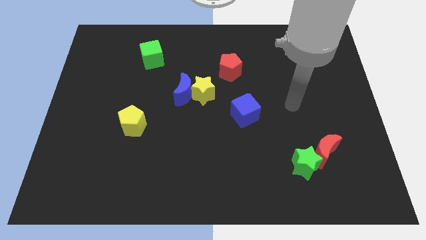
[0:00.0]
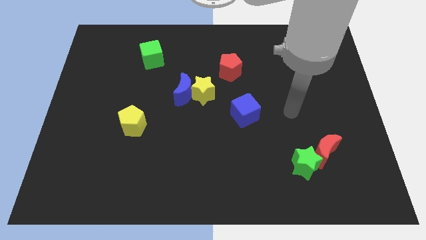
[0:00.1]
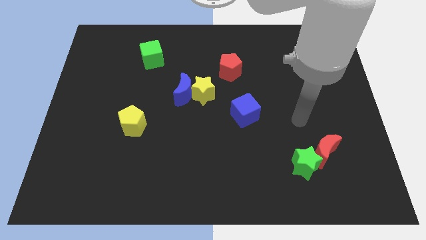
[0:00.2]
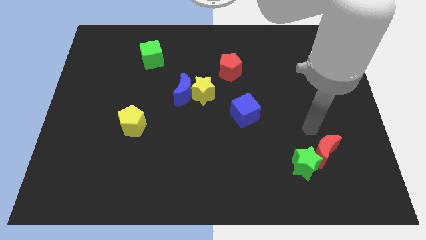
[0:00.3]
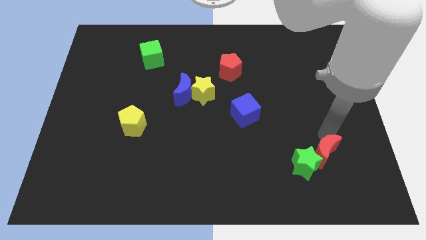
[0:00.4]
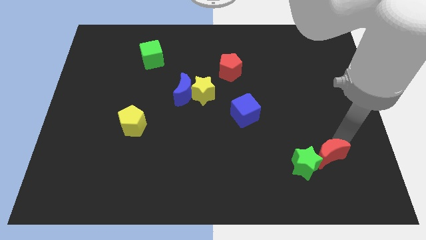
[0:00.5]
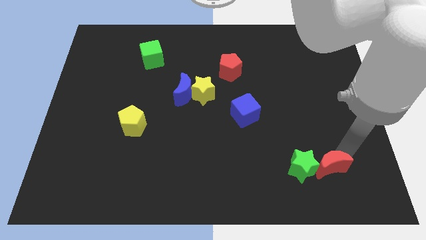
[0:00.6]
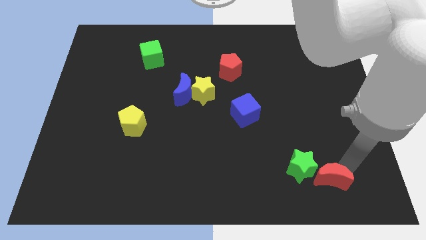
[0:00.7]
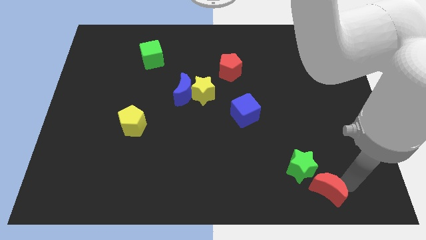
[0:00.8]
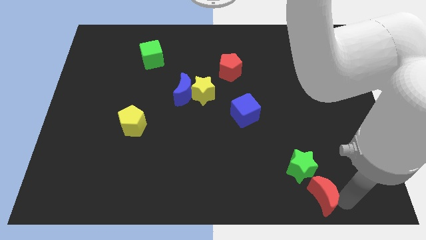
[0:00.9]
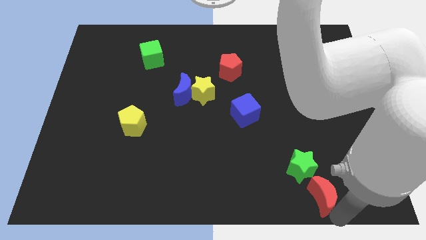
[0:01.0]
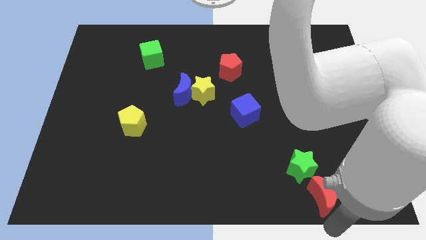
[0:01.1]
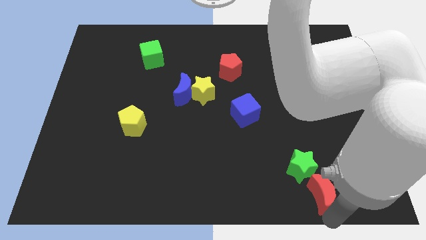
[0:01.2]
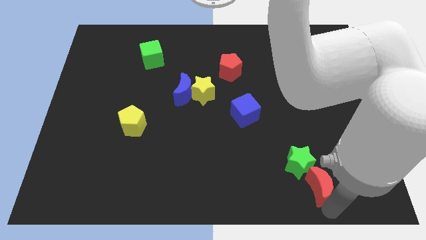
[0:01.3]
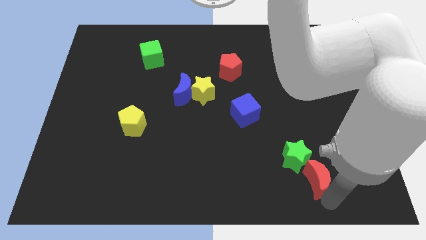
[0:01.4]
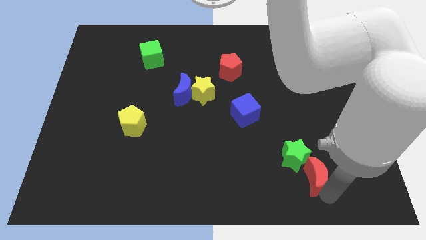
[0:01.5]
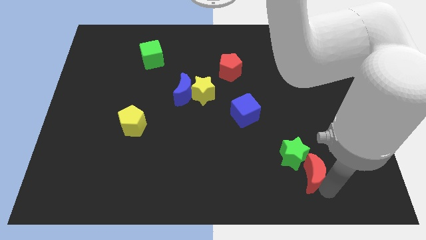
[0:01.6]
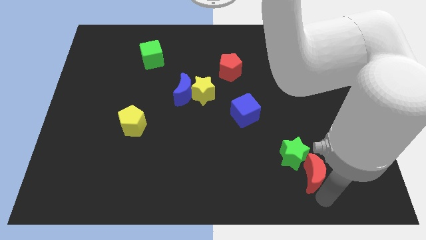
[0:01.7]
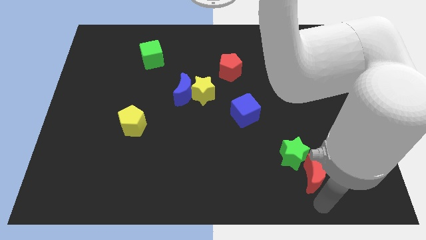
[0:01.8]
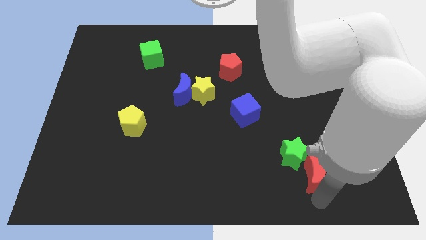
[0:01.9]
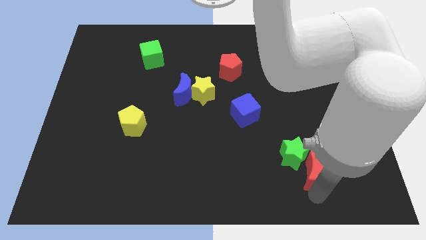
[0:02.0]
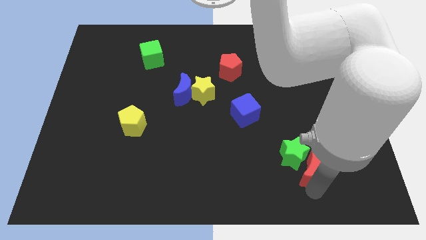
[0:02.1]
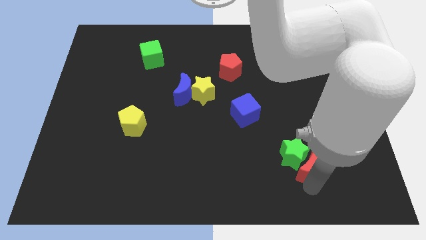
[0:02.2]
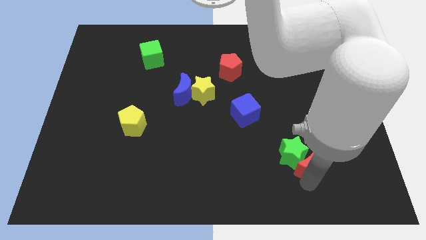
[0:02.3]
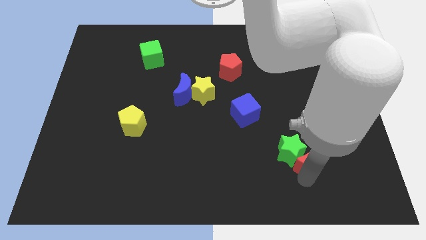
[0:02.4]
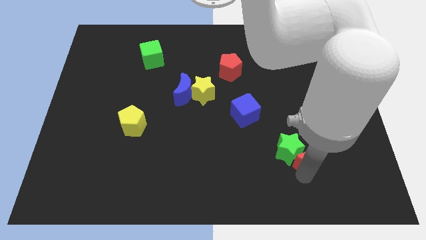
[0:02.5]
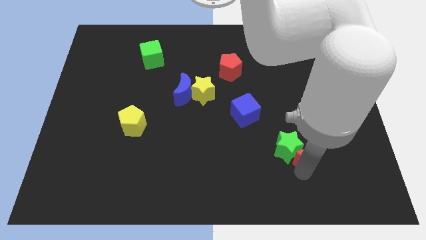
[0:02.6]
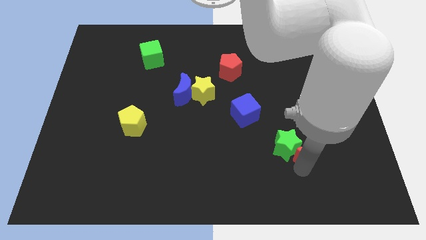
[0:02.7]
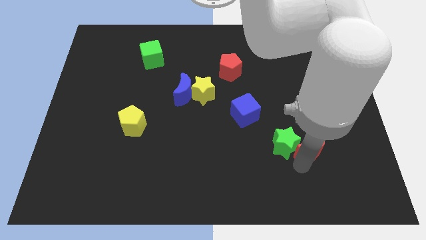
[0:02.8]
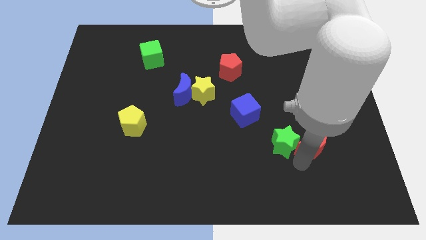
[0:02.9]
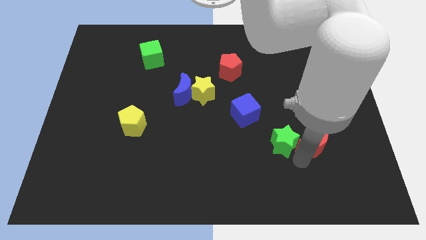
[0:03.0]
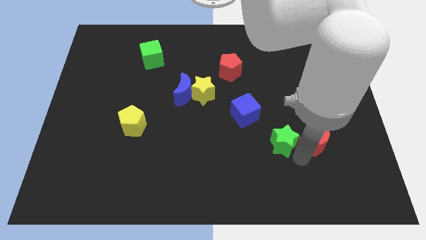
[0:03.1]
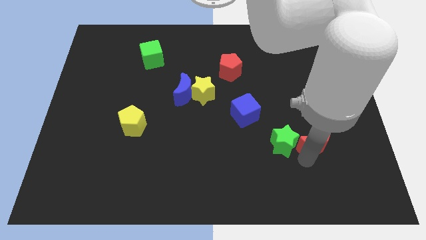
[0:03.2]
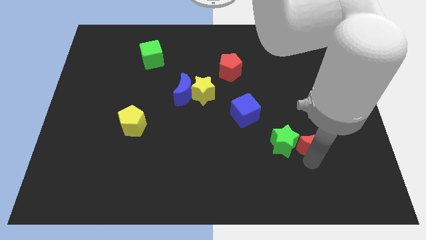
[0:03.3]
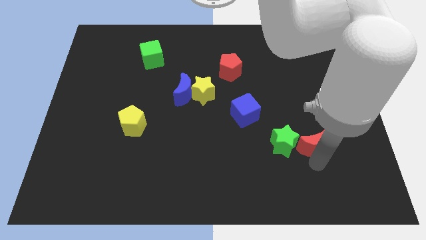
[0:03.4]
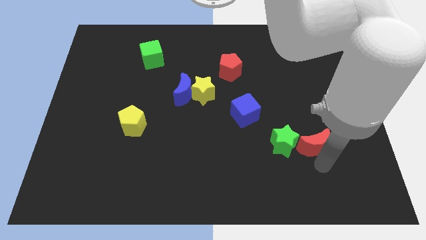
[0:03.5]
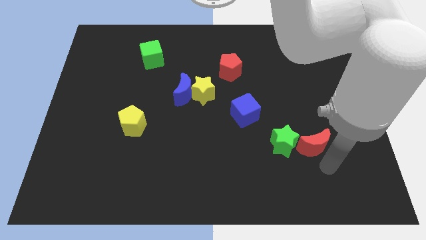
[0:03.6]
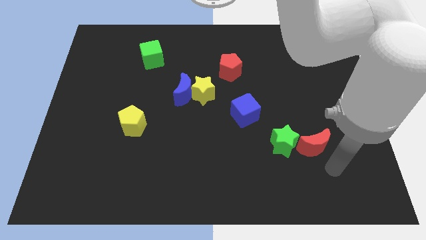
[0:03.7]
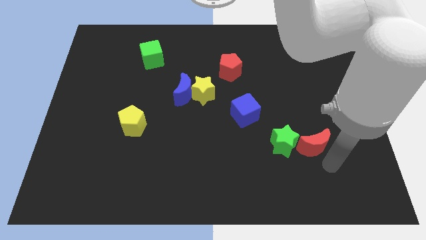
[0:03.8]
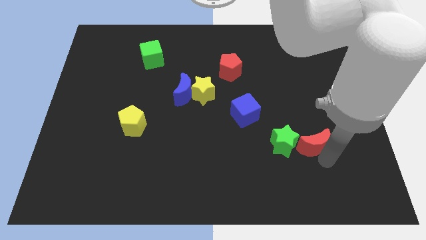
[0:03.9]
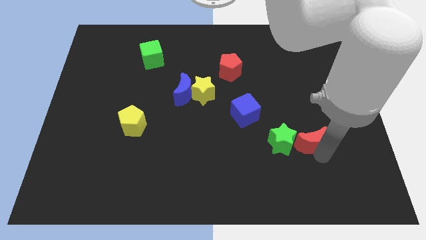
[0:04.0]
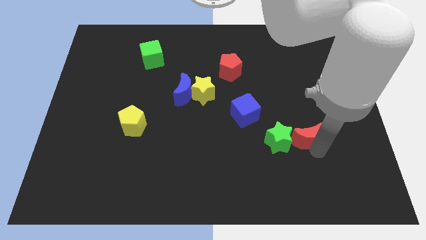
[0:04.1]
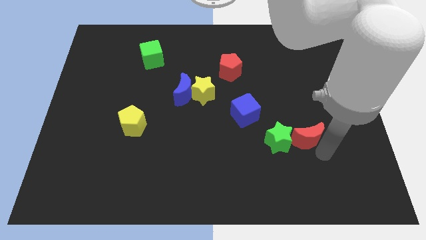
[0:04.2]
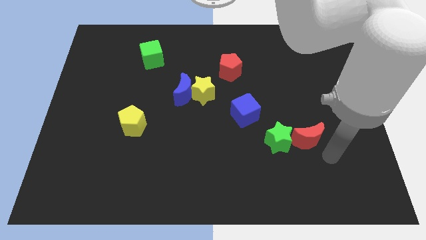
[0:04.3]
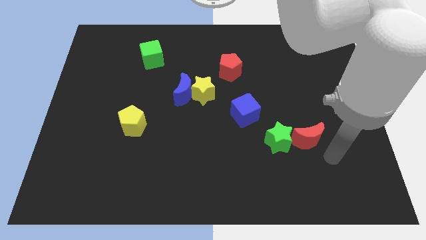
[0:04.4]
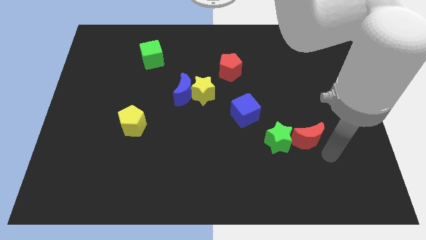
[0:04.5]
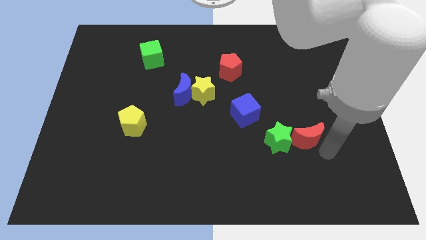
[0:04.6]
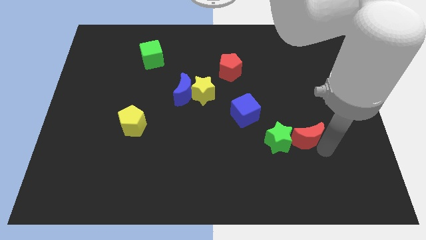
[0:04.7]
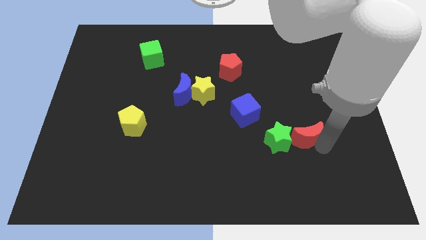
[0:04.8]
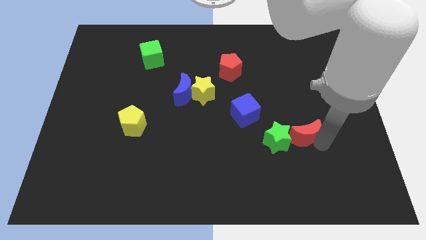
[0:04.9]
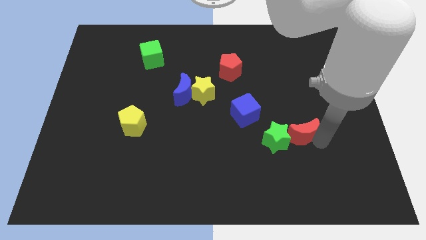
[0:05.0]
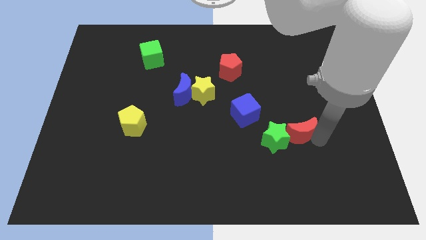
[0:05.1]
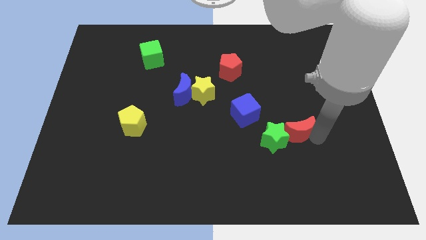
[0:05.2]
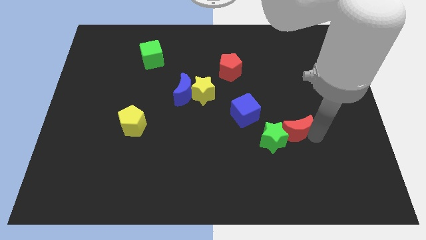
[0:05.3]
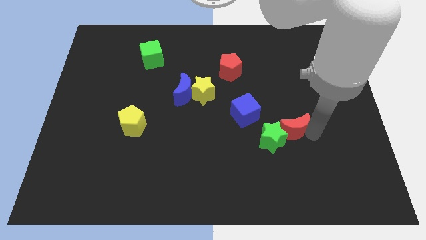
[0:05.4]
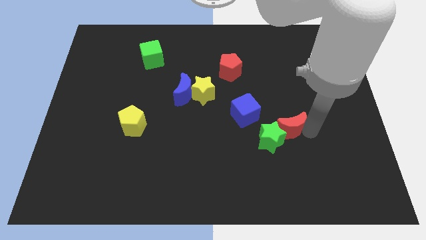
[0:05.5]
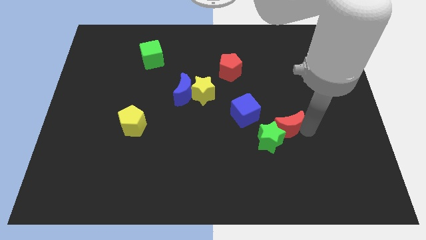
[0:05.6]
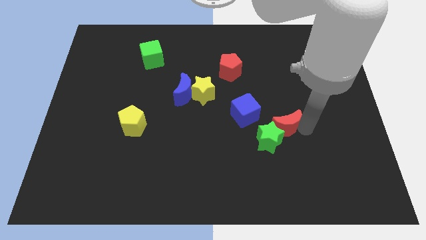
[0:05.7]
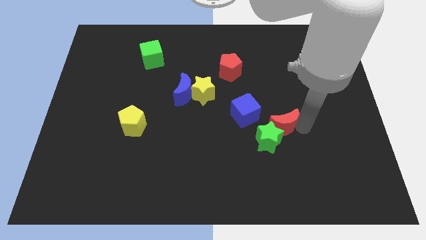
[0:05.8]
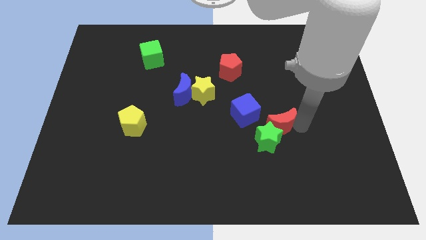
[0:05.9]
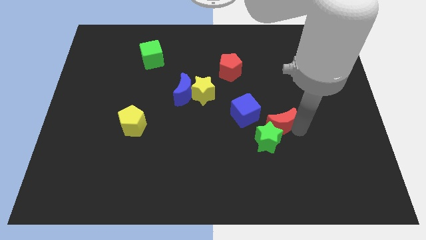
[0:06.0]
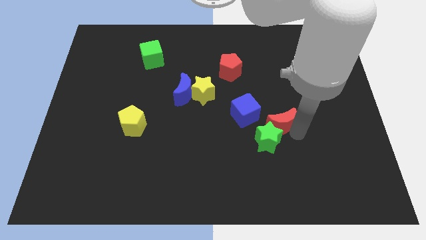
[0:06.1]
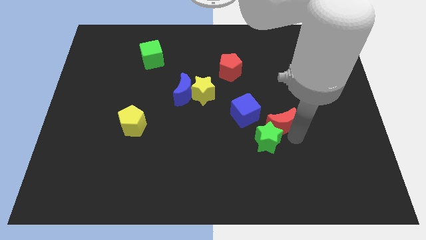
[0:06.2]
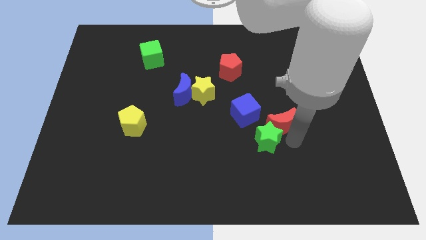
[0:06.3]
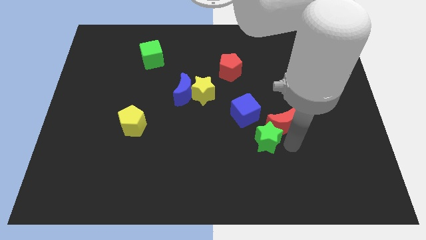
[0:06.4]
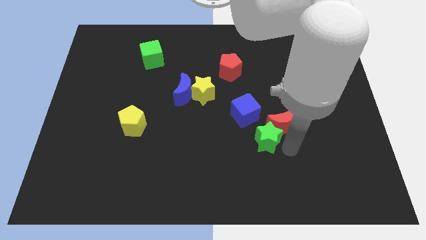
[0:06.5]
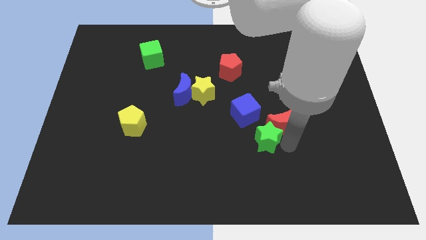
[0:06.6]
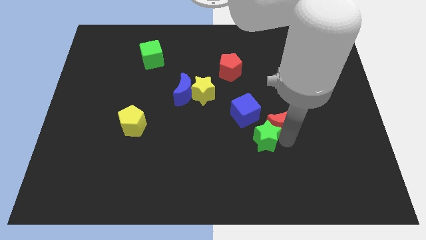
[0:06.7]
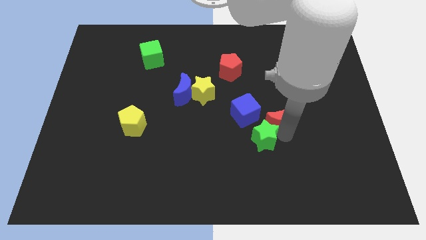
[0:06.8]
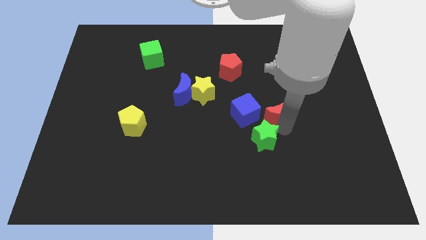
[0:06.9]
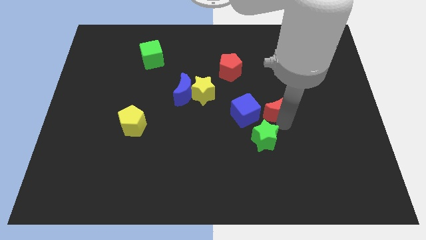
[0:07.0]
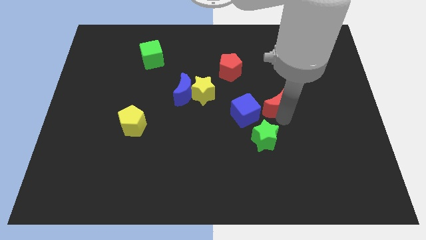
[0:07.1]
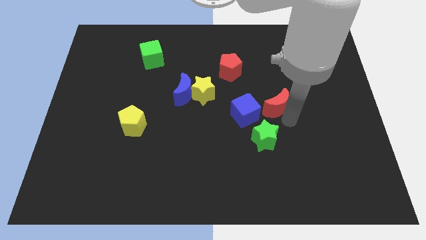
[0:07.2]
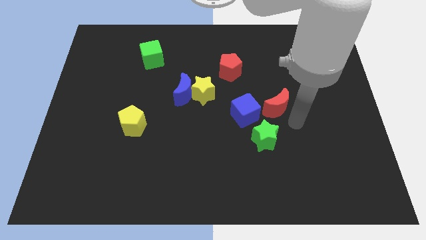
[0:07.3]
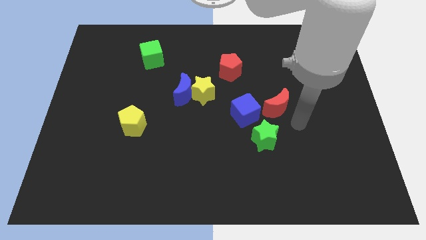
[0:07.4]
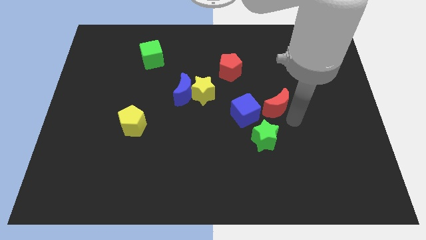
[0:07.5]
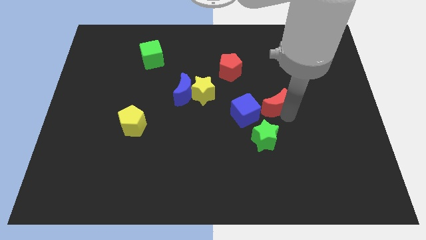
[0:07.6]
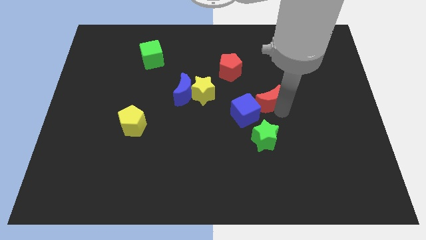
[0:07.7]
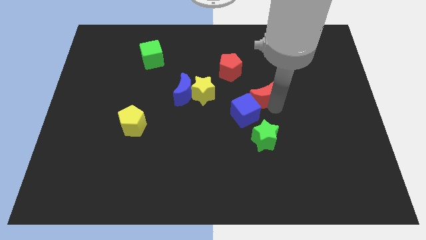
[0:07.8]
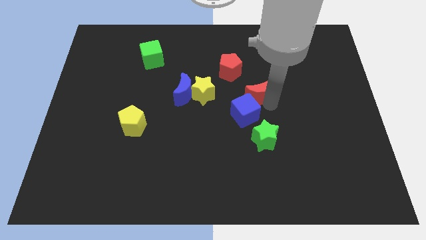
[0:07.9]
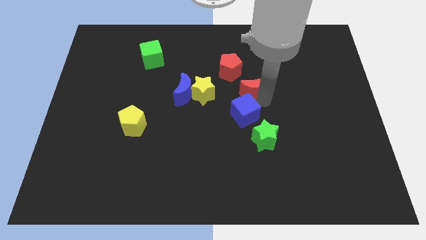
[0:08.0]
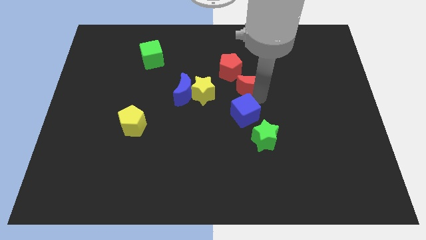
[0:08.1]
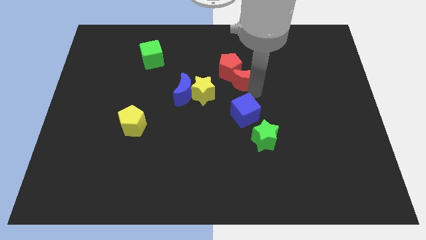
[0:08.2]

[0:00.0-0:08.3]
put the red moon to the red pentagon
